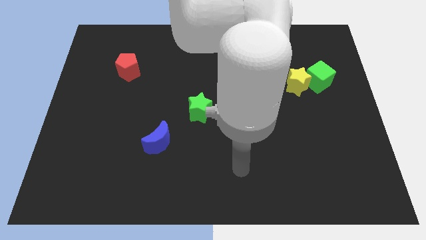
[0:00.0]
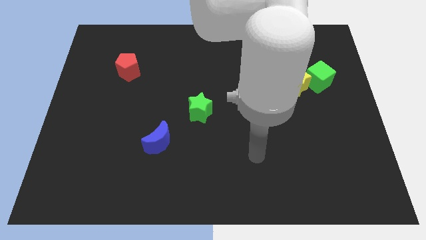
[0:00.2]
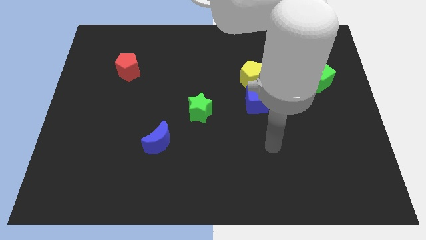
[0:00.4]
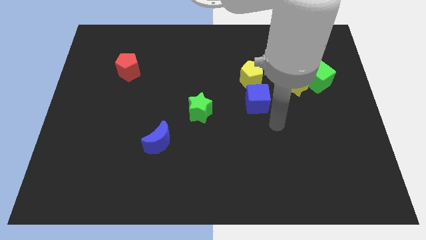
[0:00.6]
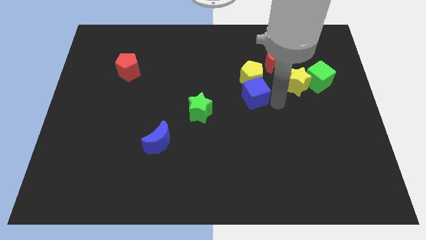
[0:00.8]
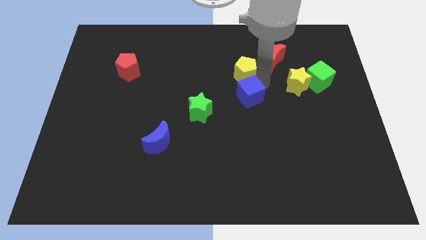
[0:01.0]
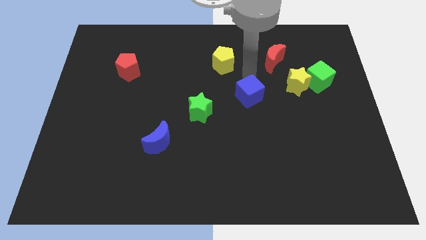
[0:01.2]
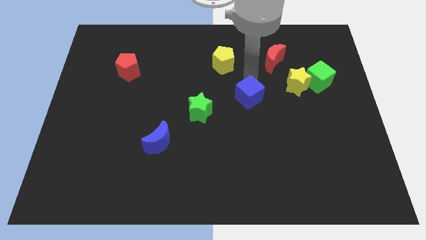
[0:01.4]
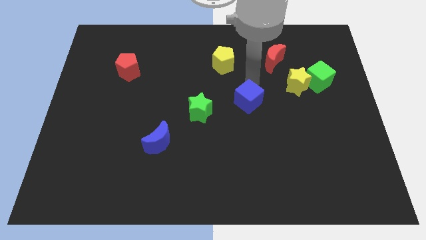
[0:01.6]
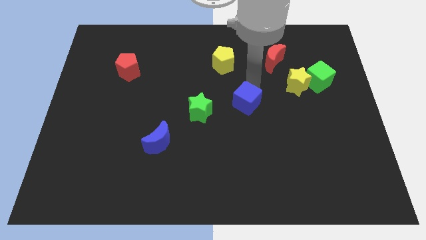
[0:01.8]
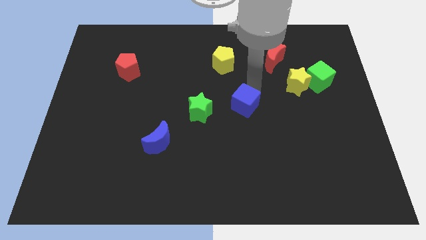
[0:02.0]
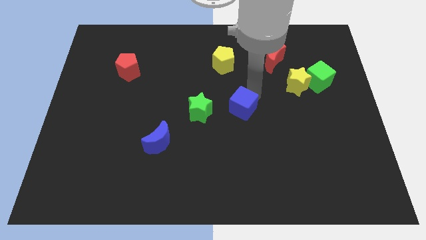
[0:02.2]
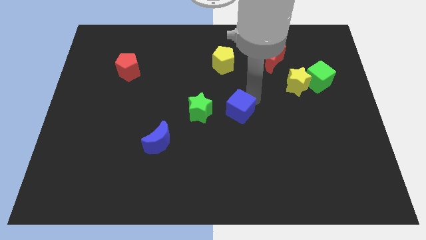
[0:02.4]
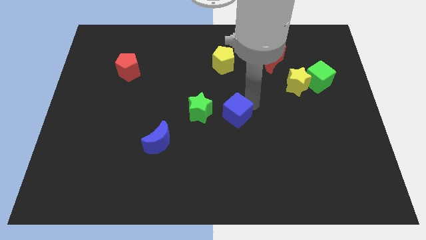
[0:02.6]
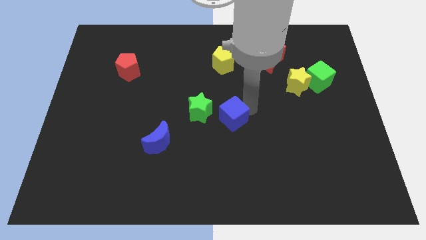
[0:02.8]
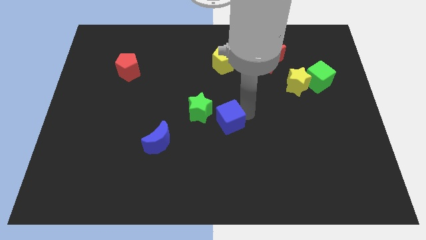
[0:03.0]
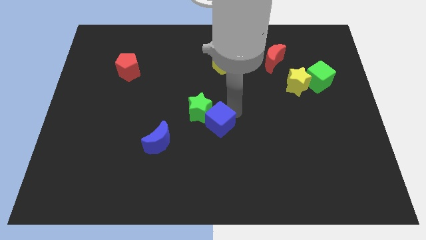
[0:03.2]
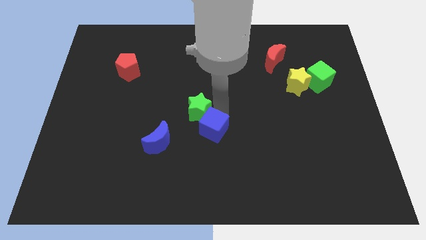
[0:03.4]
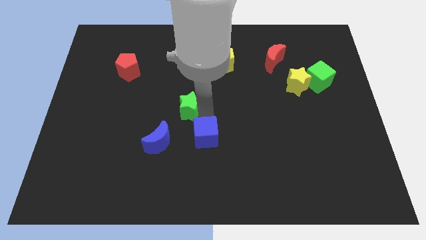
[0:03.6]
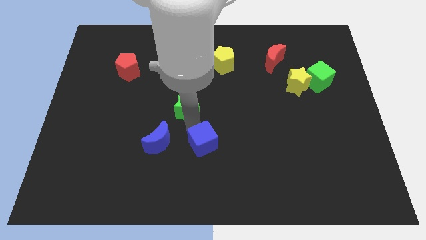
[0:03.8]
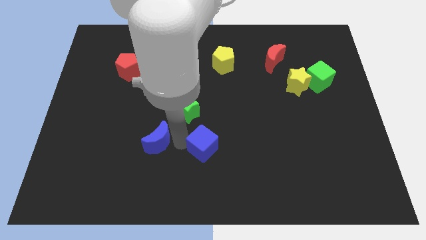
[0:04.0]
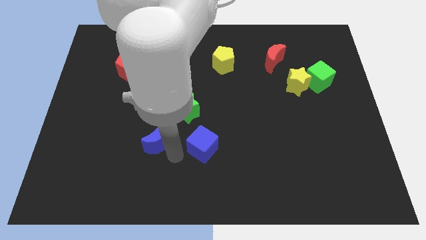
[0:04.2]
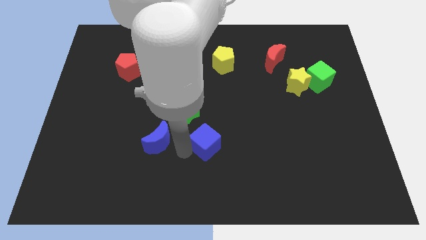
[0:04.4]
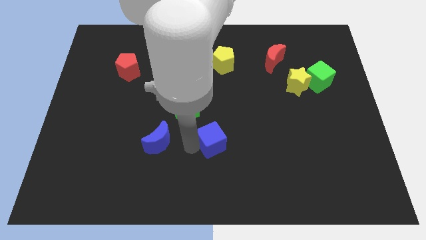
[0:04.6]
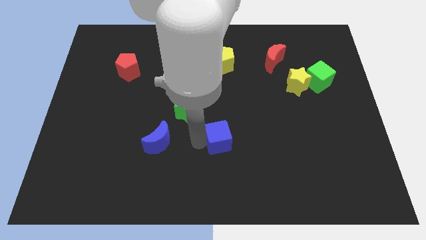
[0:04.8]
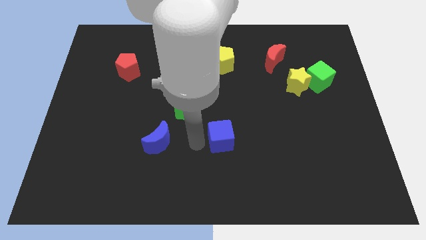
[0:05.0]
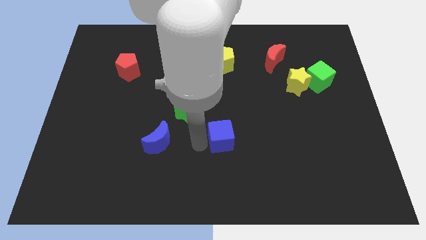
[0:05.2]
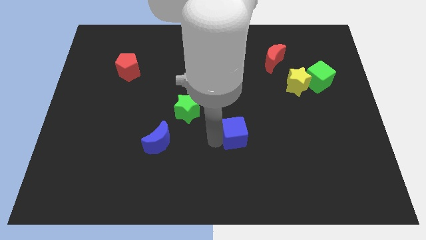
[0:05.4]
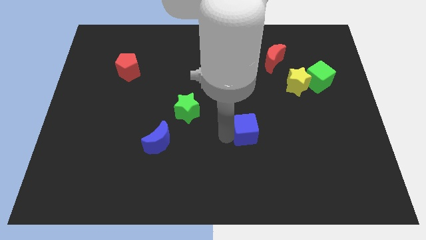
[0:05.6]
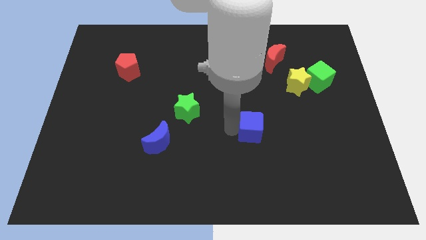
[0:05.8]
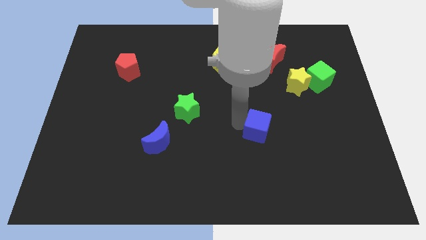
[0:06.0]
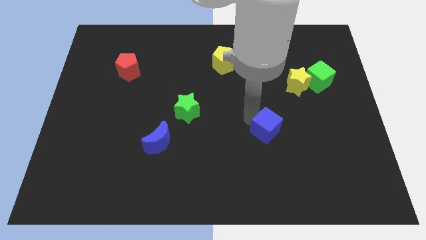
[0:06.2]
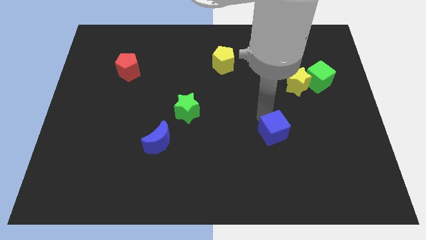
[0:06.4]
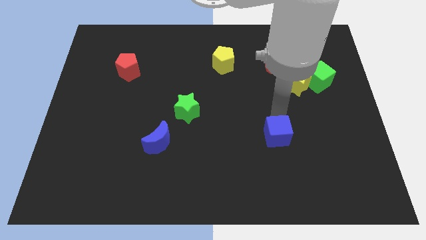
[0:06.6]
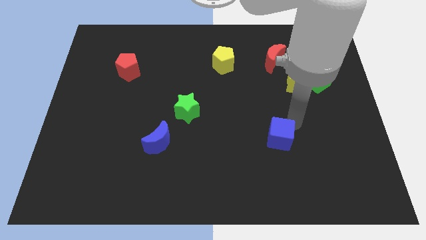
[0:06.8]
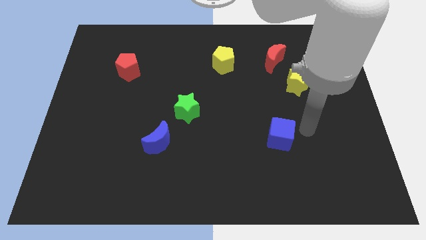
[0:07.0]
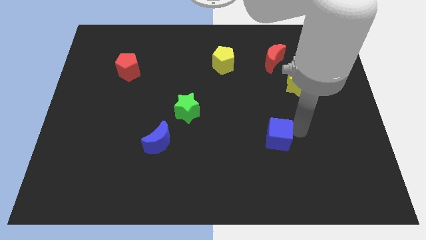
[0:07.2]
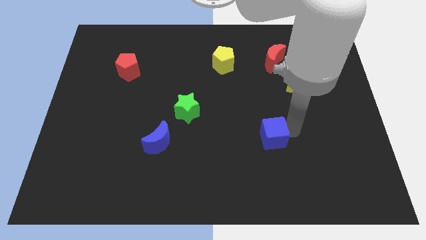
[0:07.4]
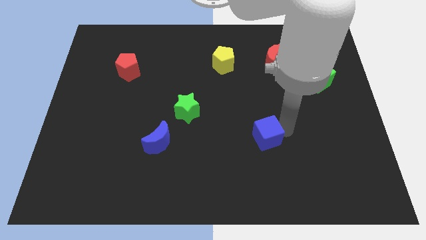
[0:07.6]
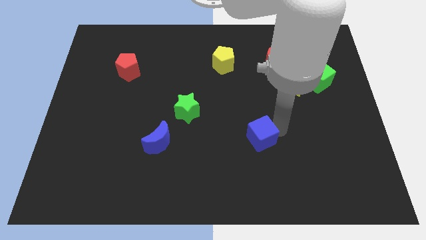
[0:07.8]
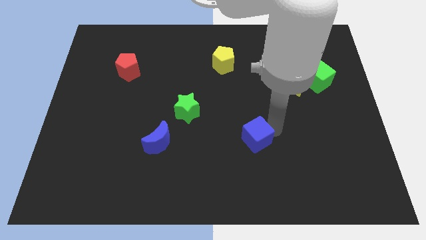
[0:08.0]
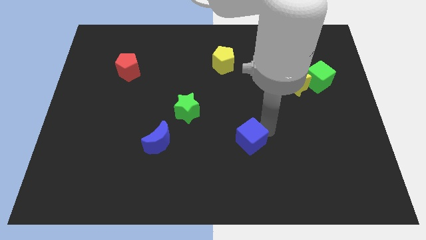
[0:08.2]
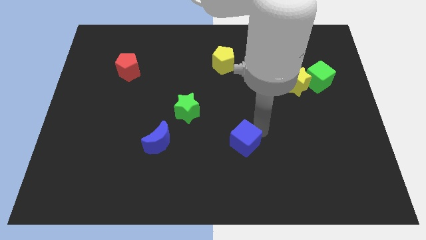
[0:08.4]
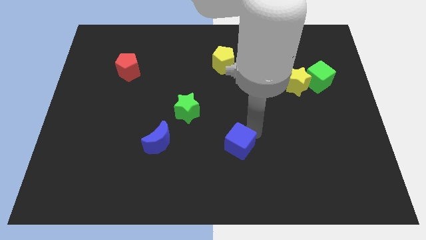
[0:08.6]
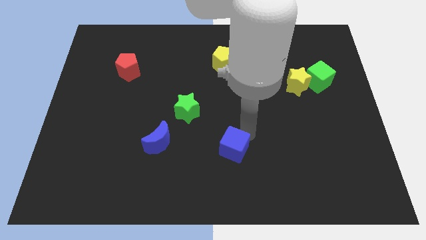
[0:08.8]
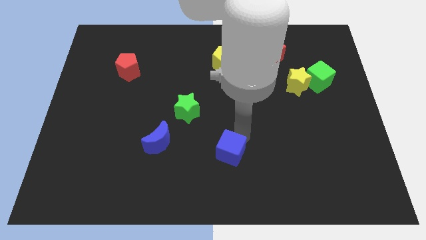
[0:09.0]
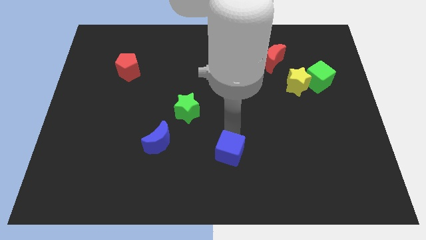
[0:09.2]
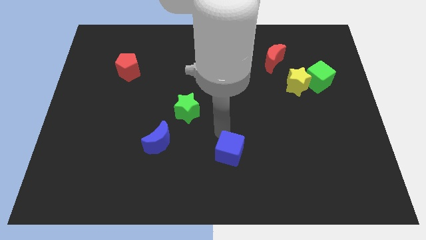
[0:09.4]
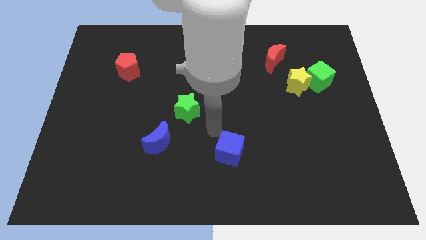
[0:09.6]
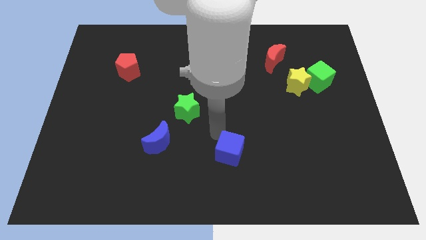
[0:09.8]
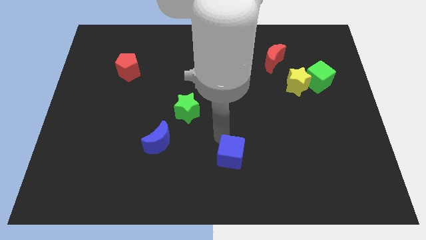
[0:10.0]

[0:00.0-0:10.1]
move the blue cube to the bottom side

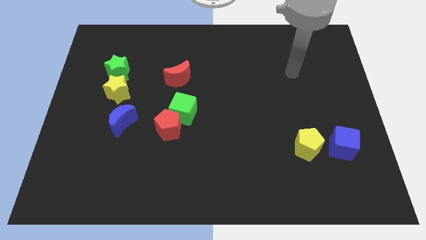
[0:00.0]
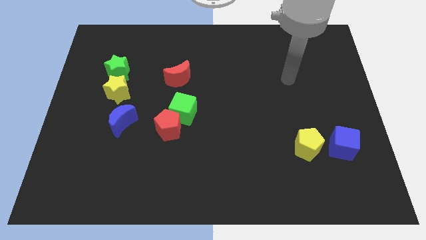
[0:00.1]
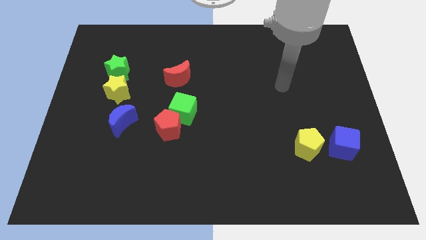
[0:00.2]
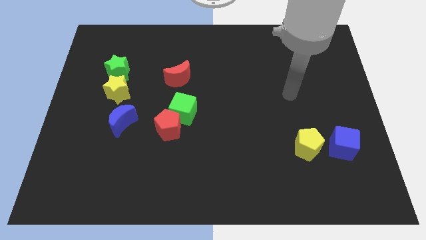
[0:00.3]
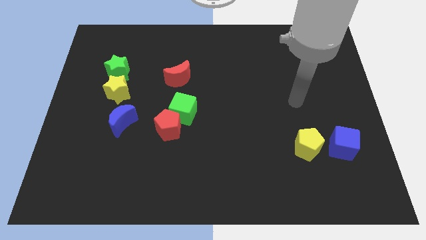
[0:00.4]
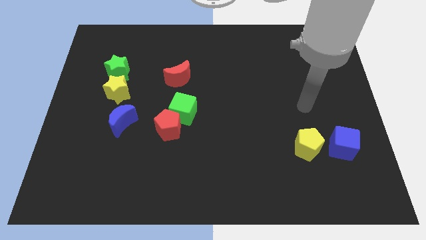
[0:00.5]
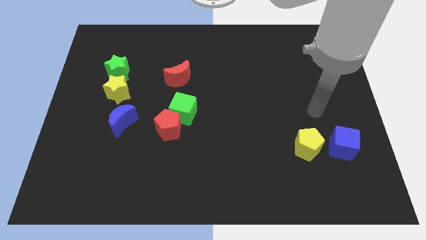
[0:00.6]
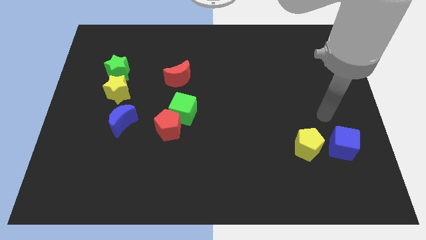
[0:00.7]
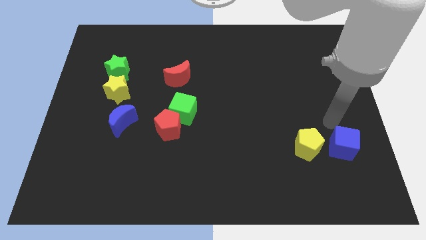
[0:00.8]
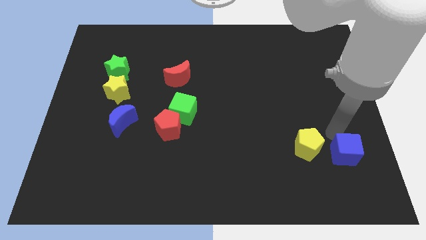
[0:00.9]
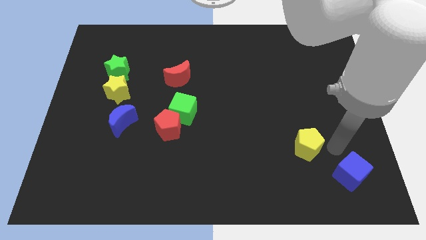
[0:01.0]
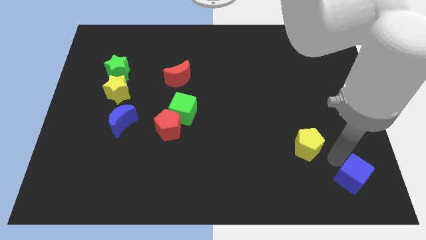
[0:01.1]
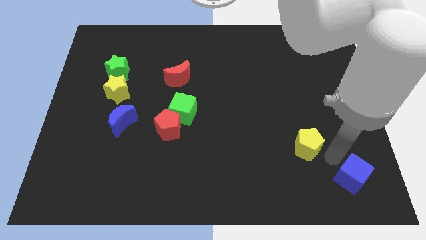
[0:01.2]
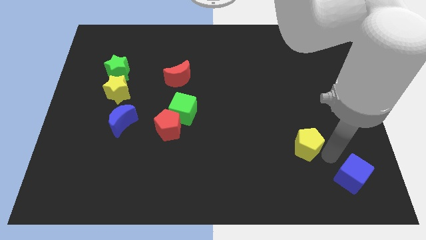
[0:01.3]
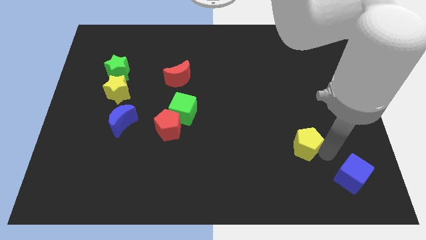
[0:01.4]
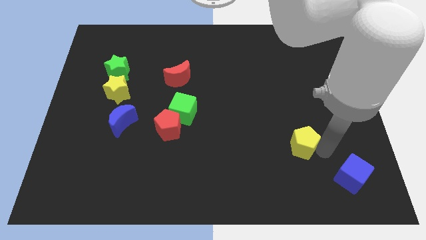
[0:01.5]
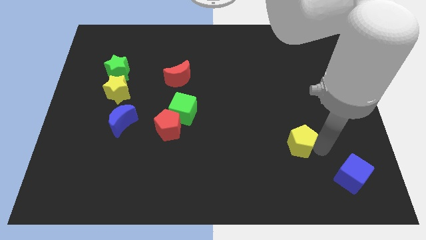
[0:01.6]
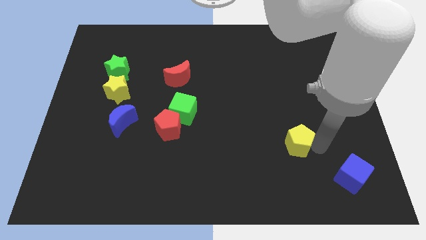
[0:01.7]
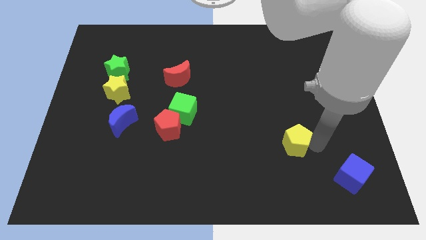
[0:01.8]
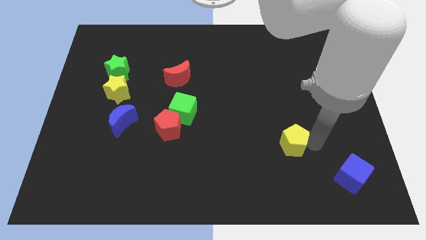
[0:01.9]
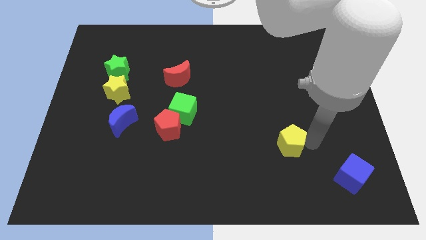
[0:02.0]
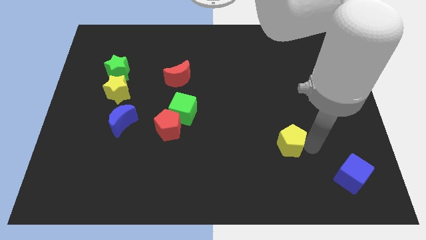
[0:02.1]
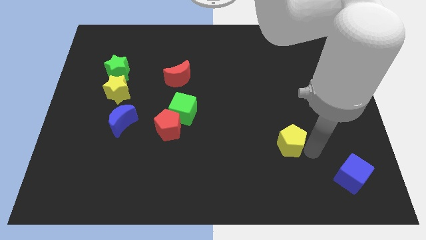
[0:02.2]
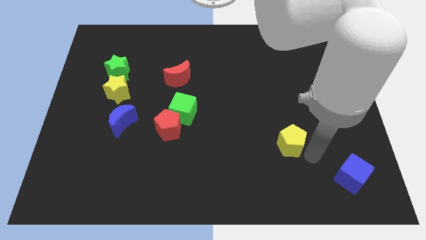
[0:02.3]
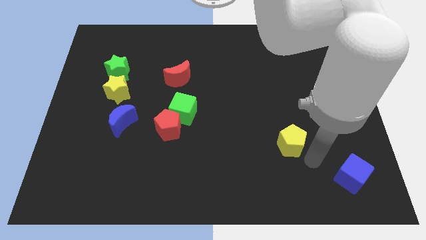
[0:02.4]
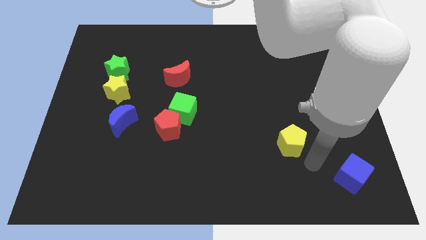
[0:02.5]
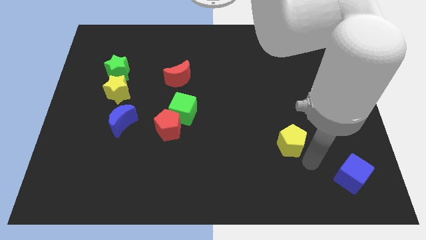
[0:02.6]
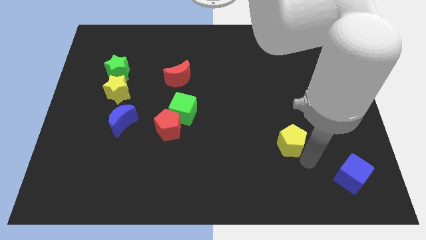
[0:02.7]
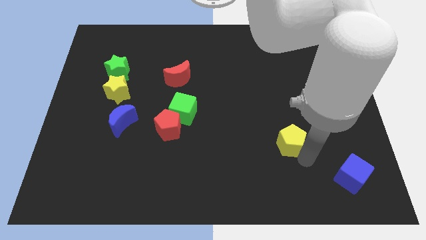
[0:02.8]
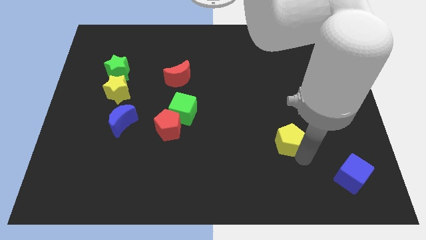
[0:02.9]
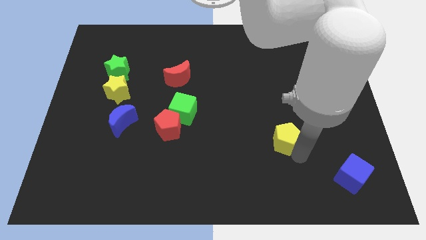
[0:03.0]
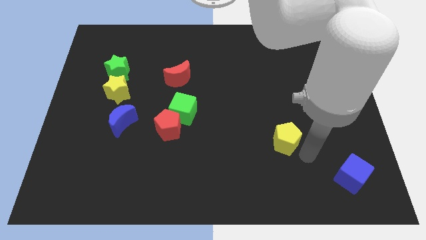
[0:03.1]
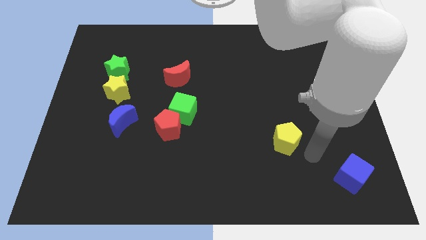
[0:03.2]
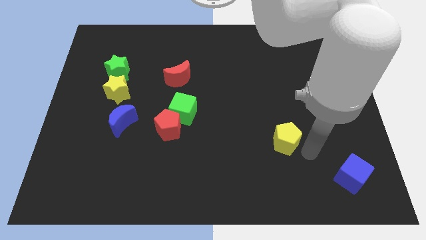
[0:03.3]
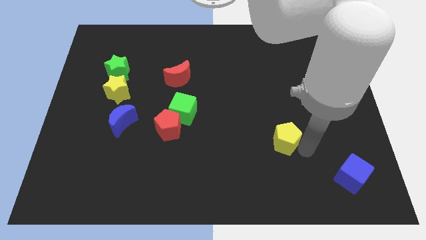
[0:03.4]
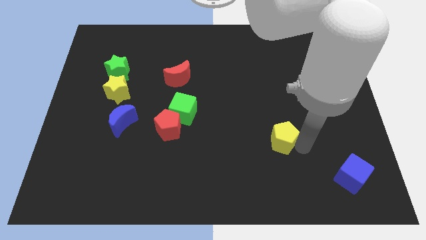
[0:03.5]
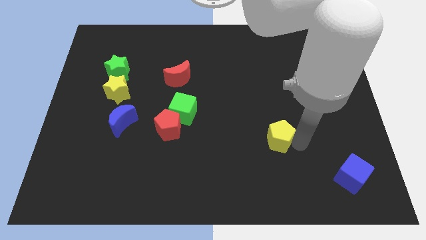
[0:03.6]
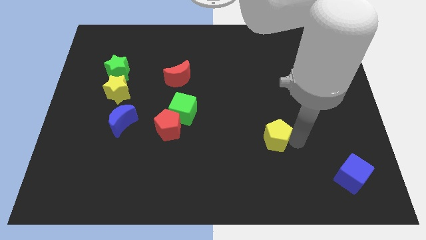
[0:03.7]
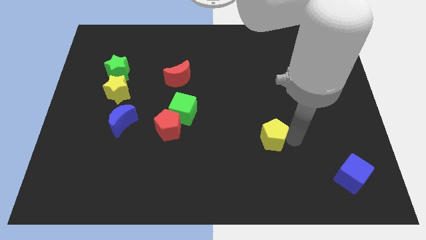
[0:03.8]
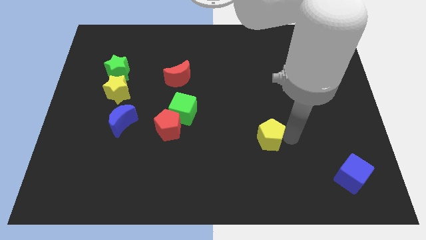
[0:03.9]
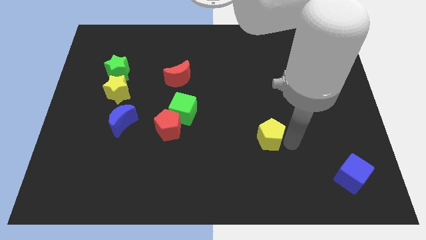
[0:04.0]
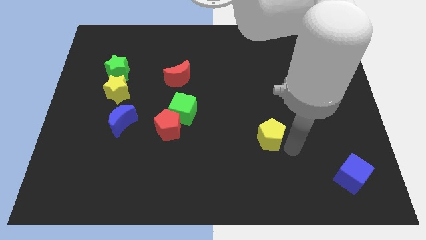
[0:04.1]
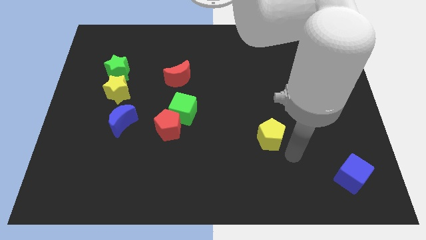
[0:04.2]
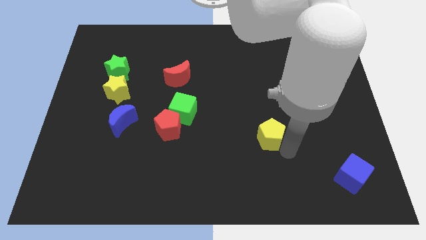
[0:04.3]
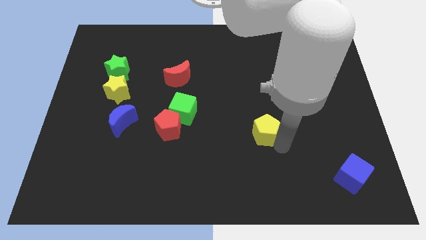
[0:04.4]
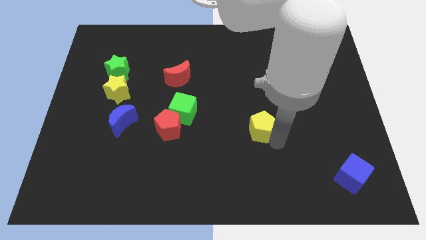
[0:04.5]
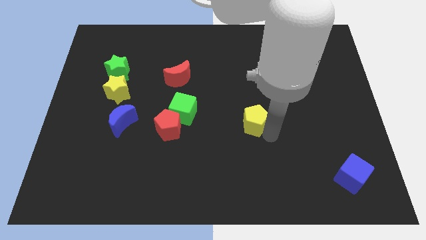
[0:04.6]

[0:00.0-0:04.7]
slide the yellow pentagon to the middle of the board
